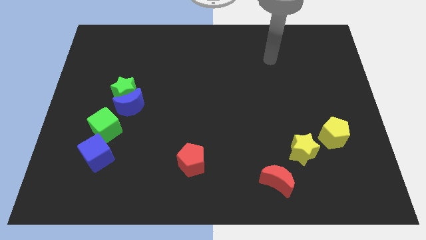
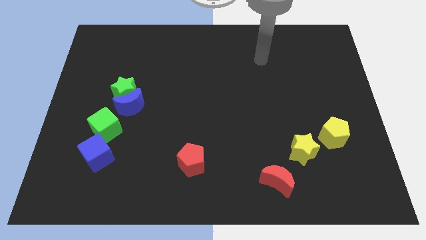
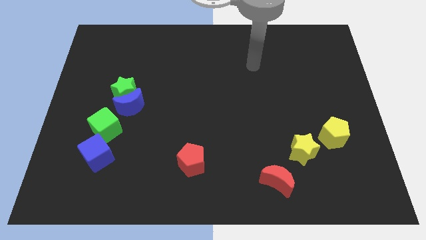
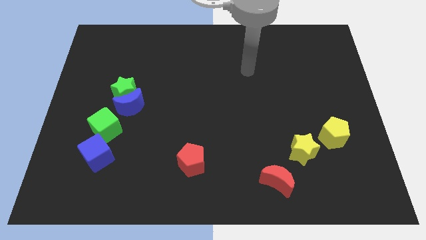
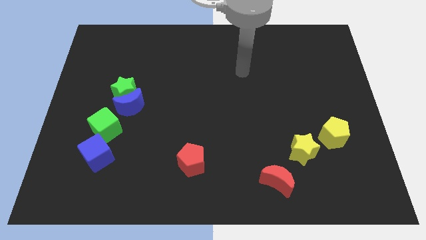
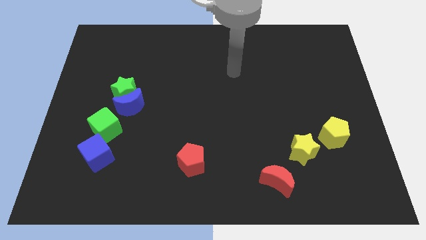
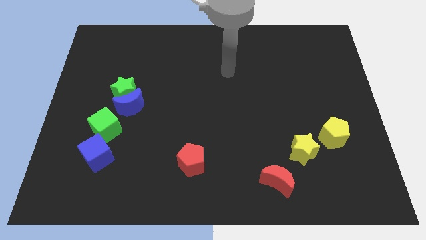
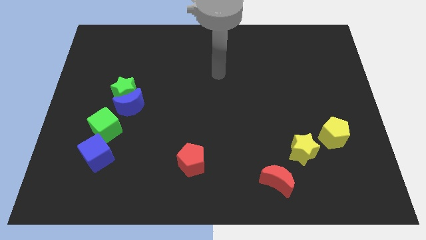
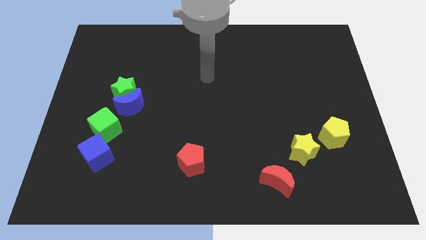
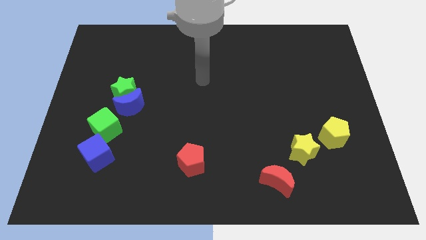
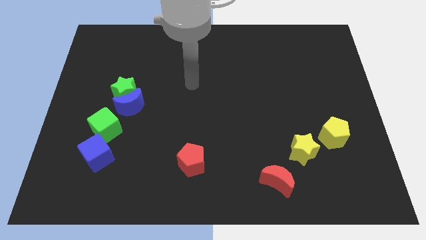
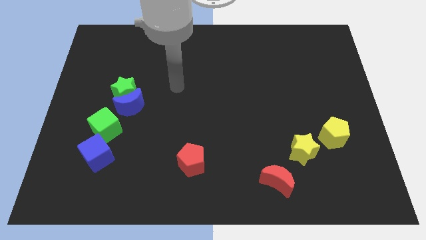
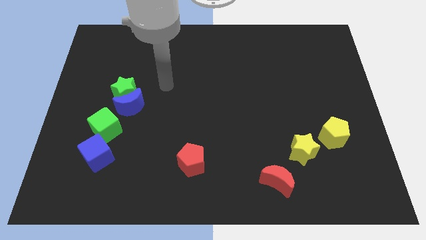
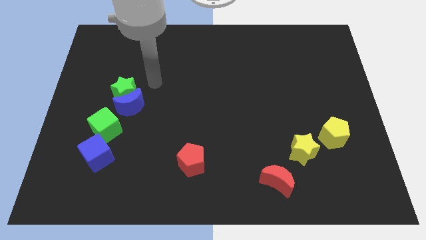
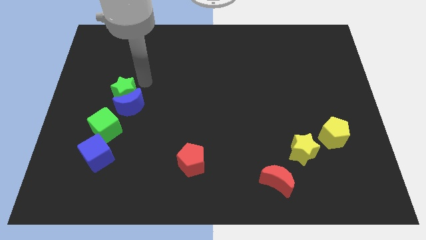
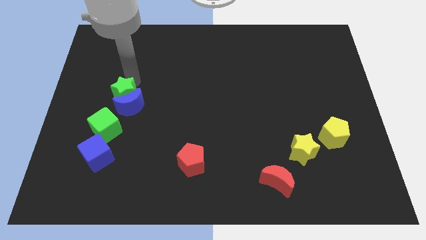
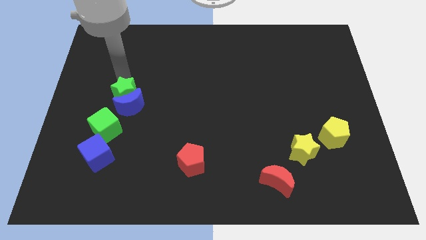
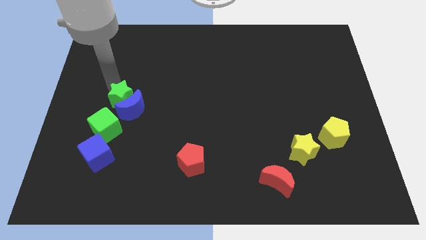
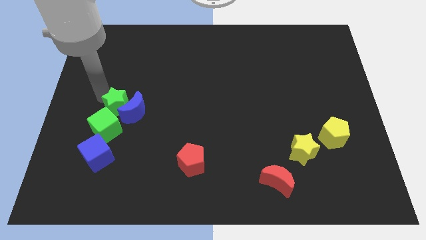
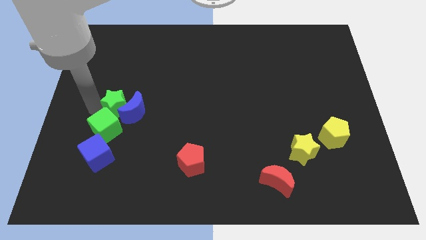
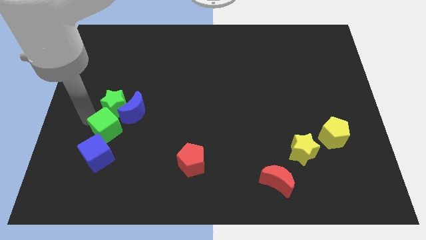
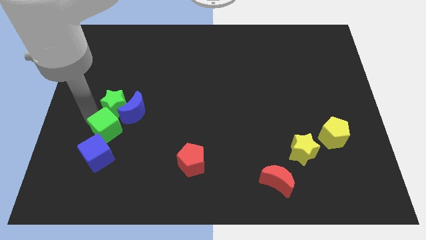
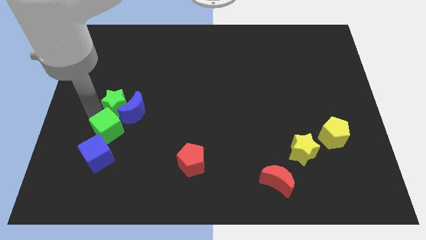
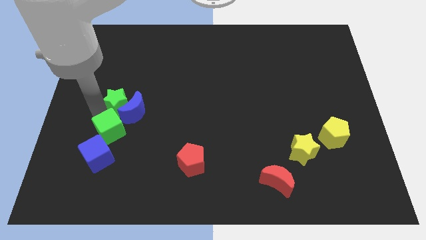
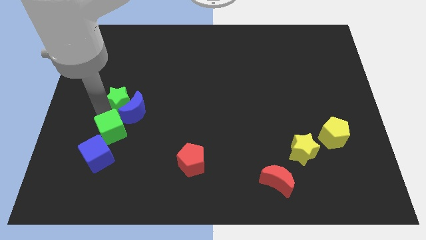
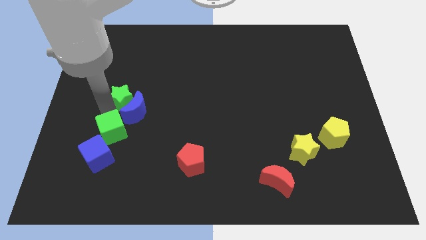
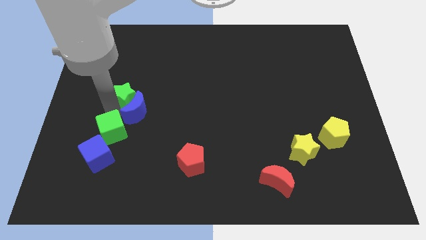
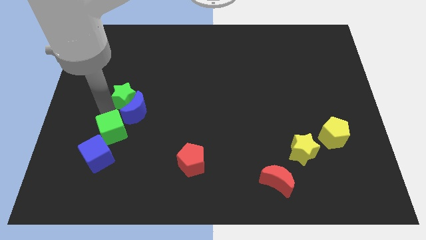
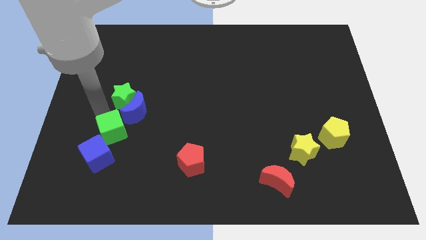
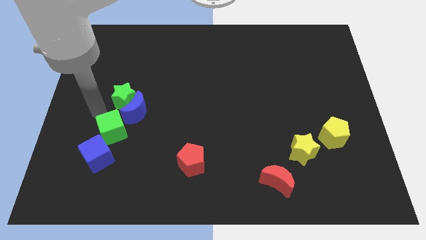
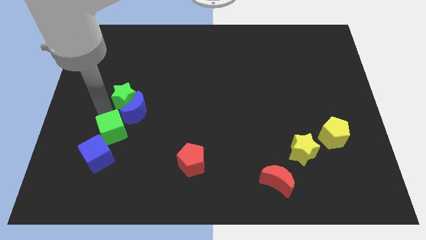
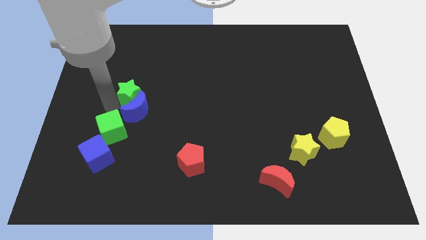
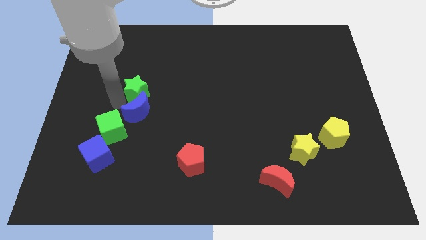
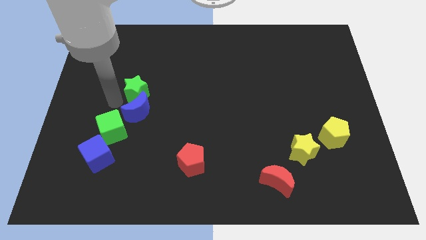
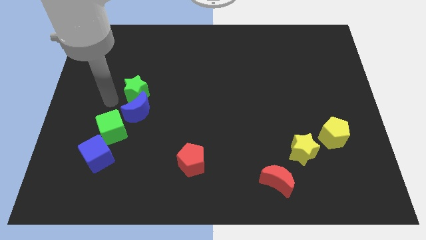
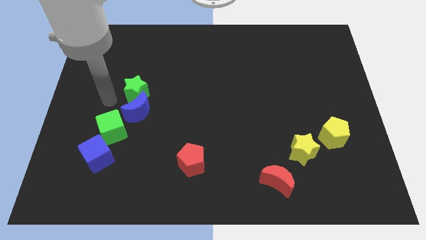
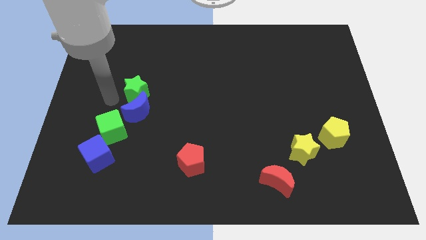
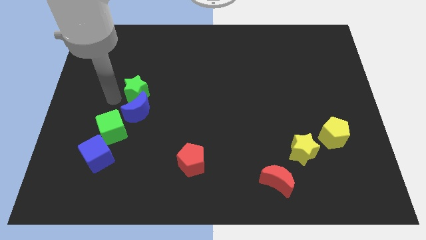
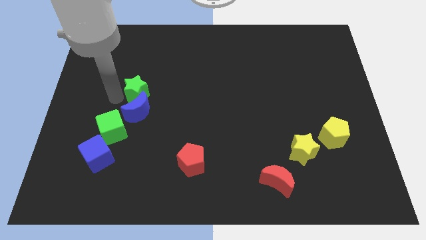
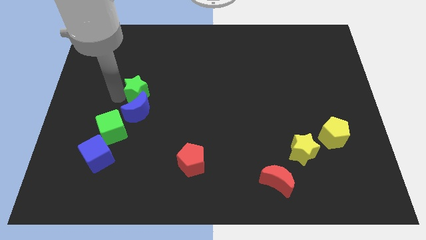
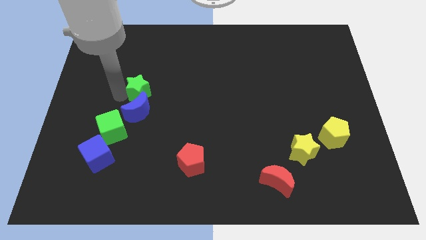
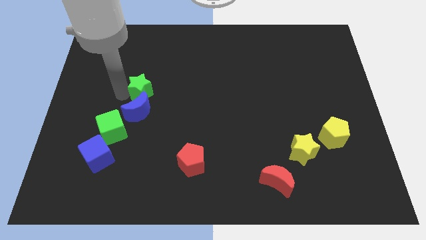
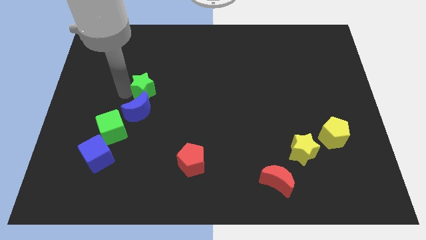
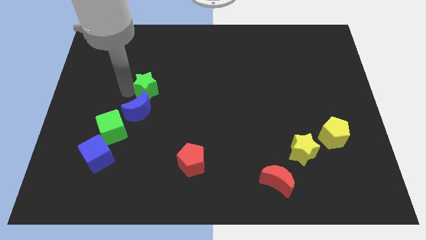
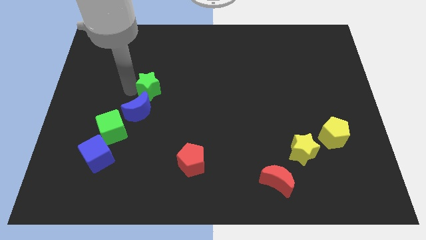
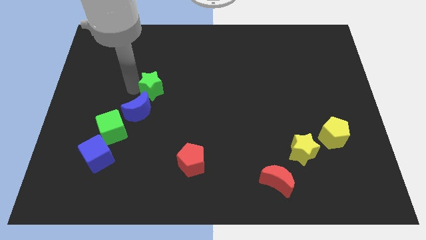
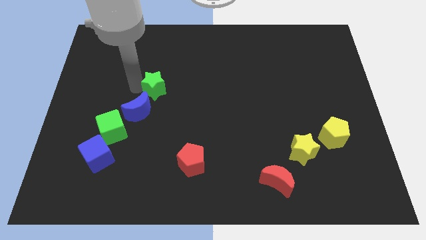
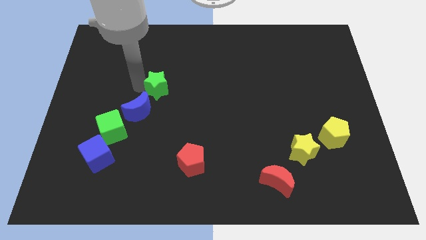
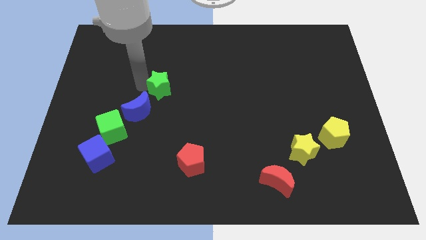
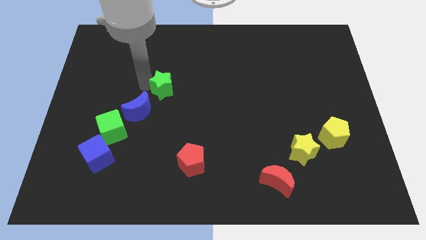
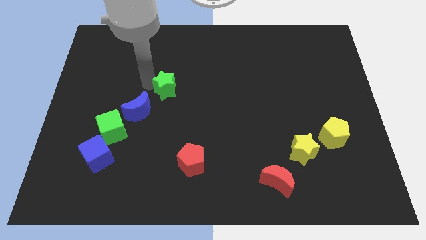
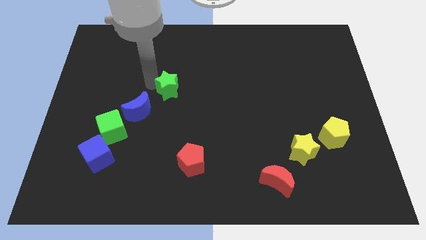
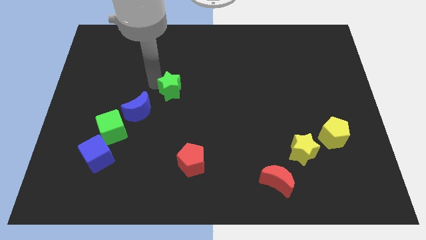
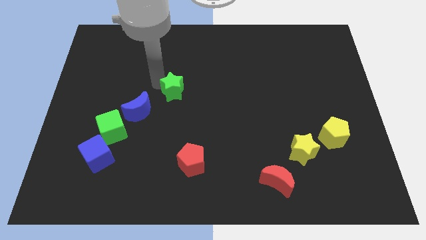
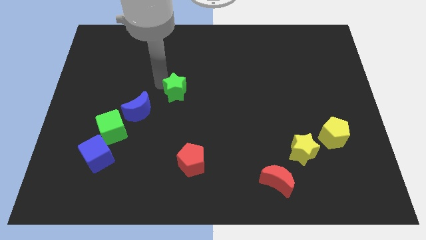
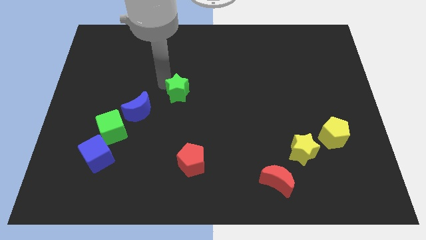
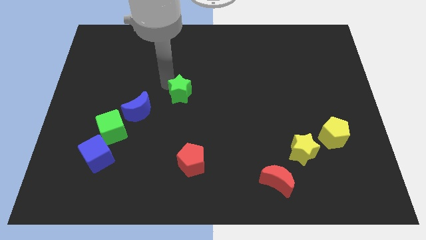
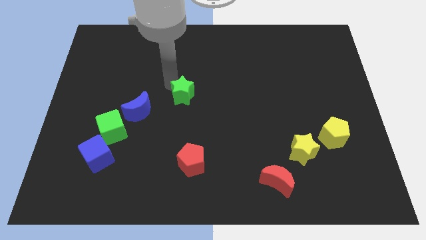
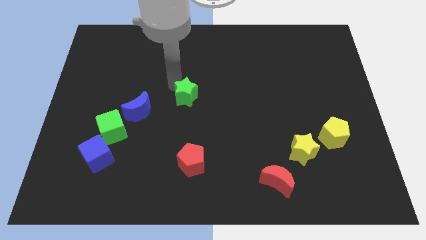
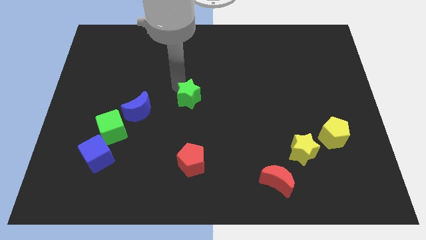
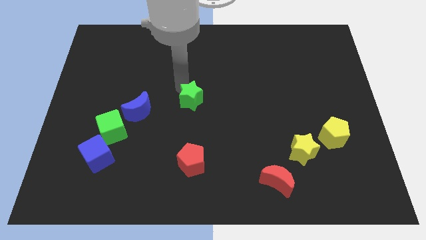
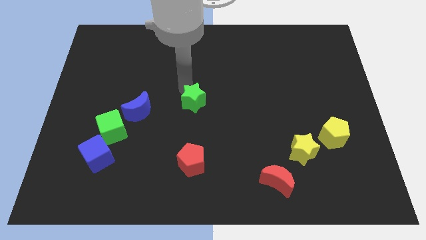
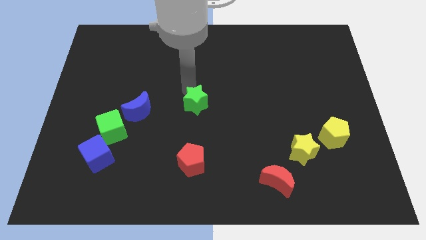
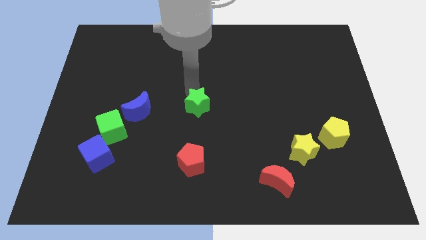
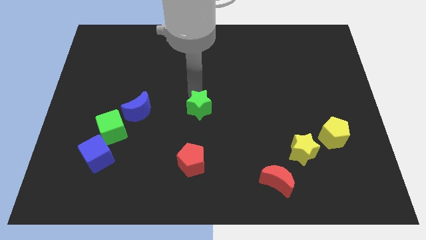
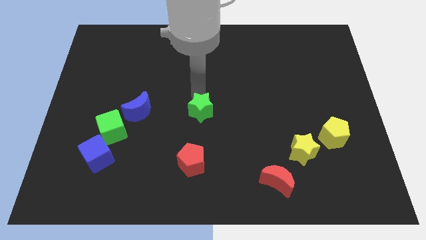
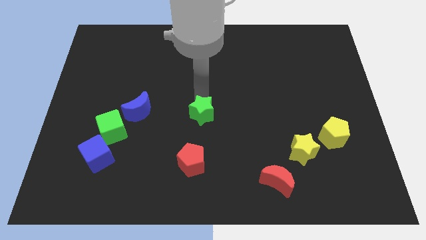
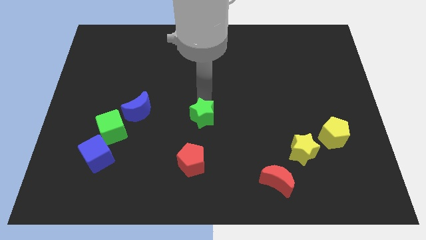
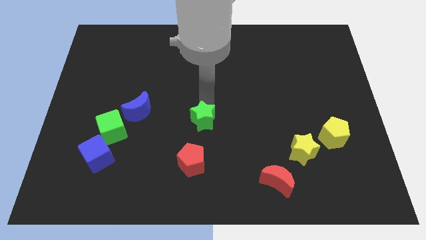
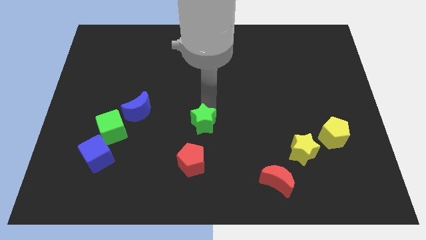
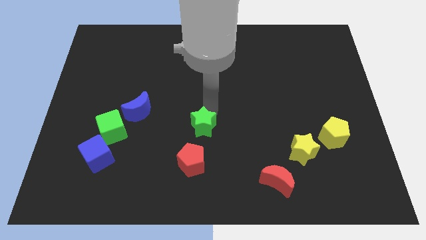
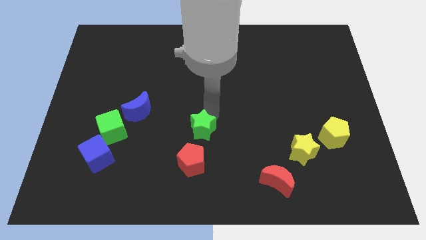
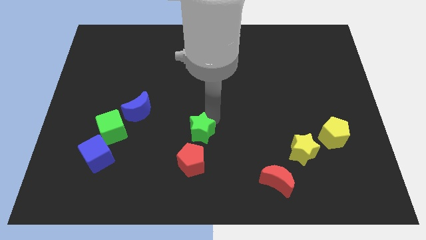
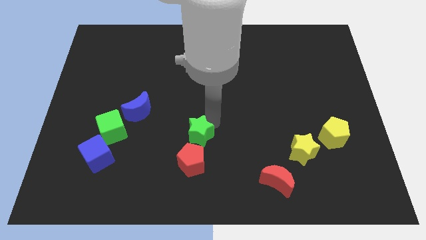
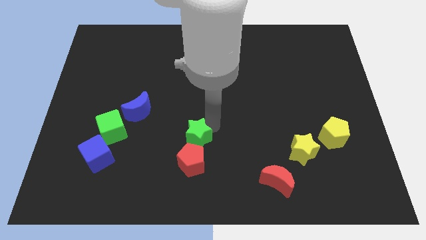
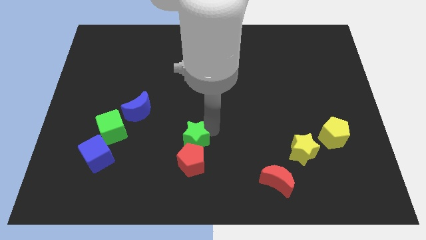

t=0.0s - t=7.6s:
move the green star diagonally up and to the left of the red pentagon
